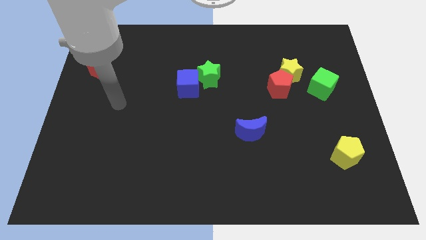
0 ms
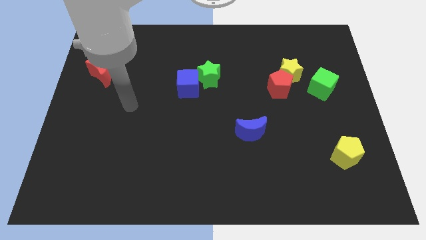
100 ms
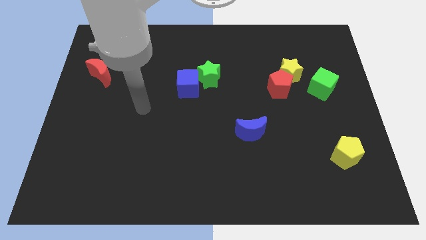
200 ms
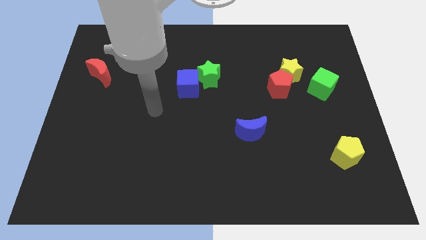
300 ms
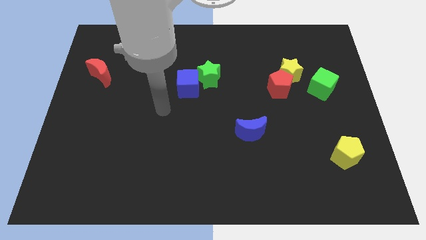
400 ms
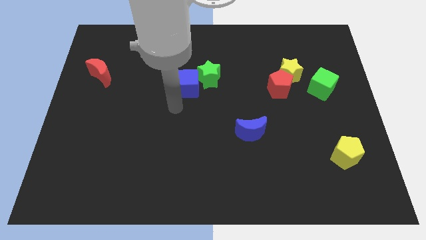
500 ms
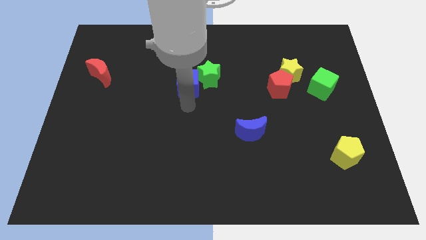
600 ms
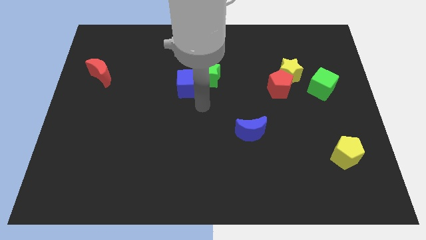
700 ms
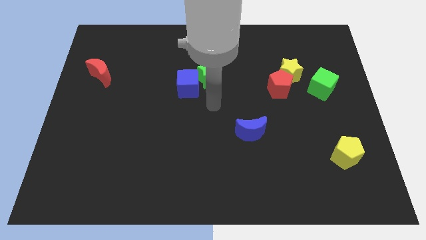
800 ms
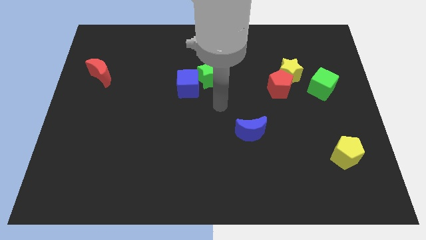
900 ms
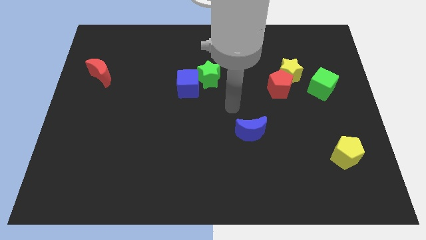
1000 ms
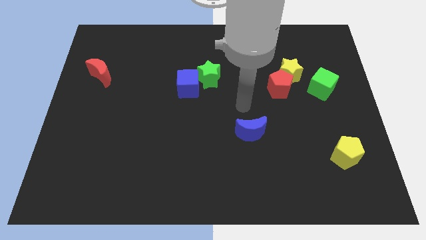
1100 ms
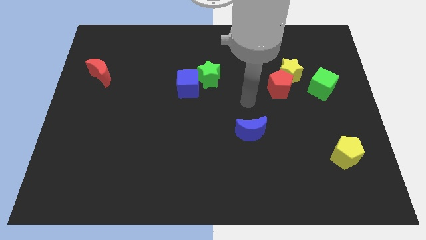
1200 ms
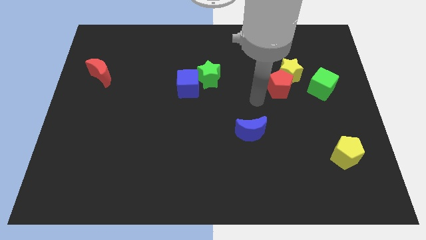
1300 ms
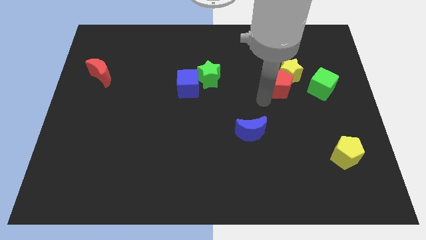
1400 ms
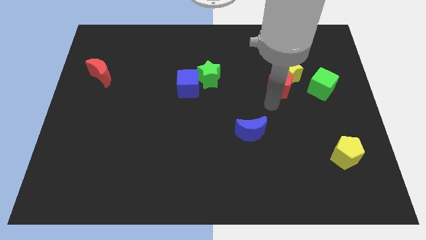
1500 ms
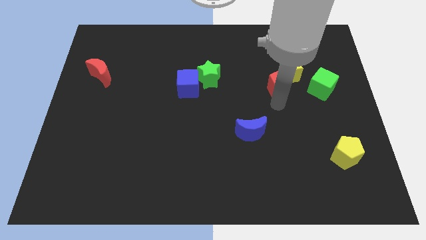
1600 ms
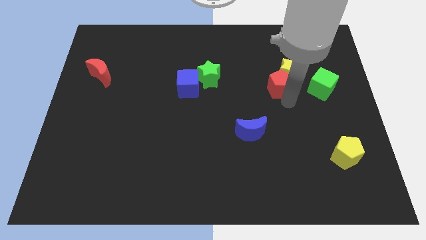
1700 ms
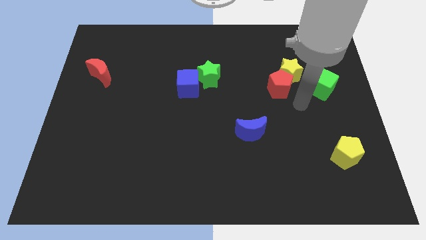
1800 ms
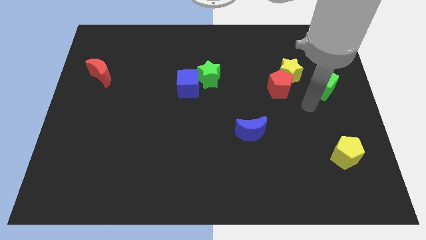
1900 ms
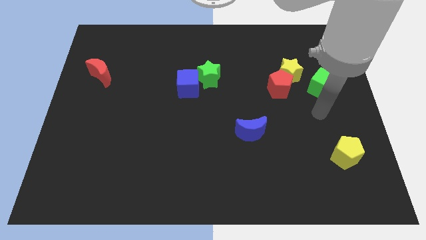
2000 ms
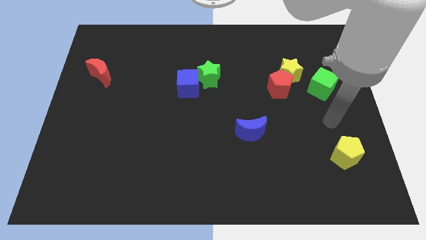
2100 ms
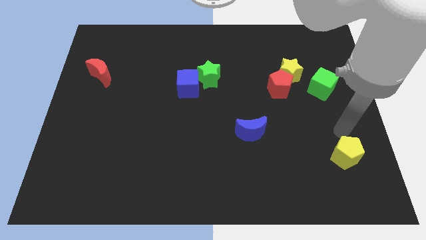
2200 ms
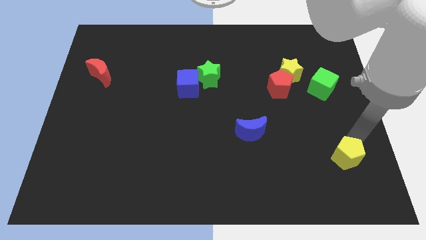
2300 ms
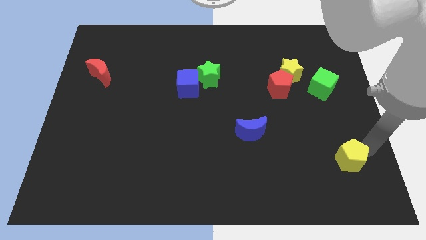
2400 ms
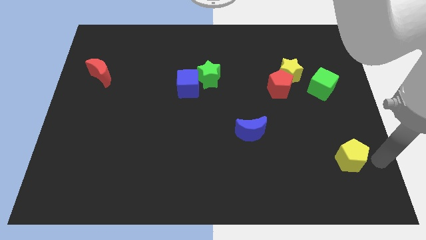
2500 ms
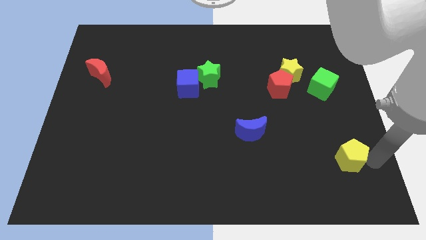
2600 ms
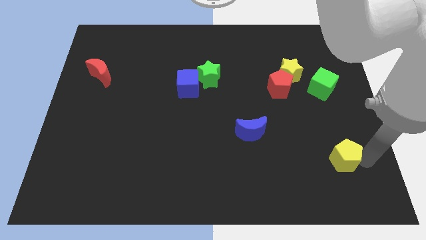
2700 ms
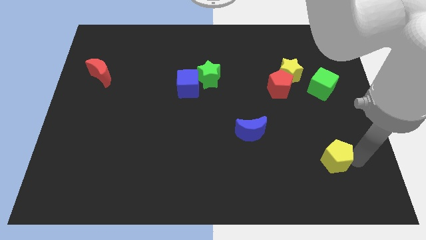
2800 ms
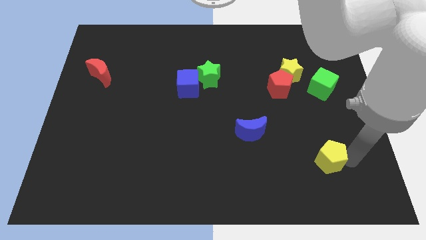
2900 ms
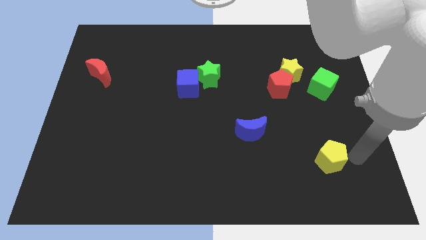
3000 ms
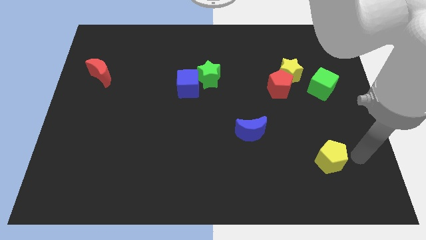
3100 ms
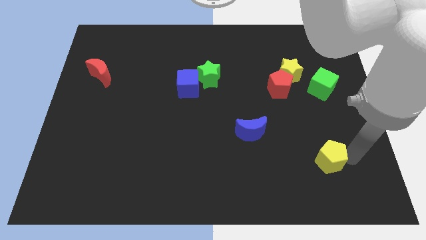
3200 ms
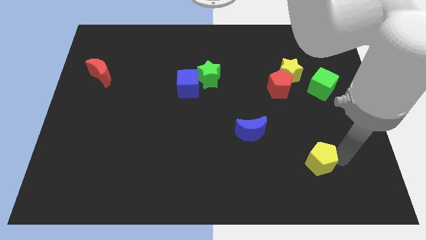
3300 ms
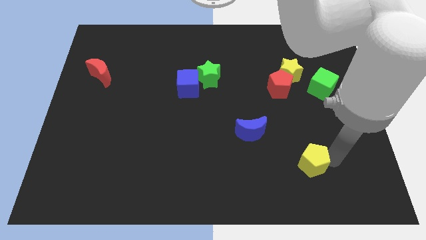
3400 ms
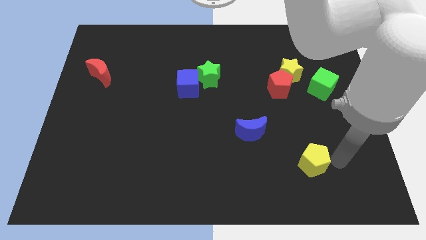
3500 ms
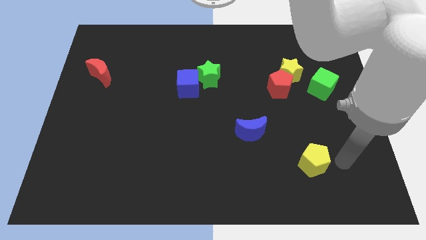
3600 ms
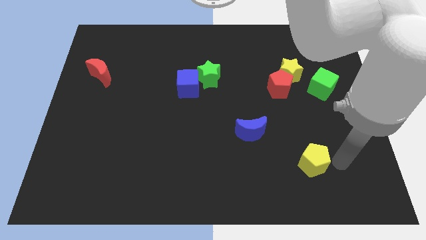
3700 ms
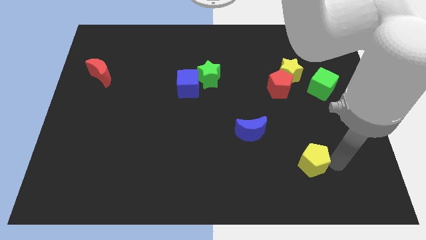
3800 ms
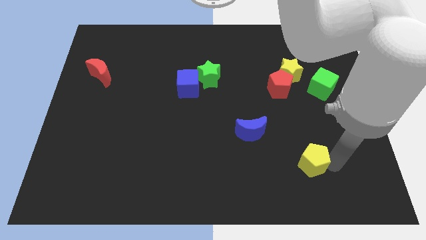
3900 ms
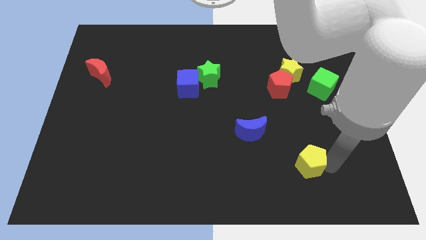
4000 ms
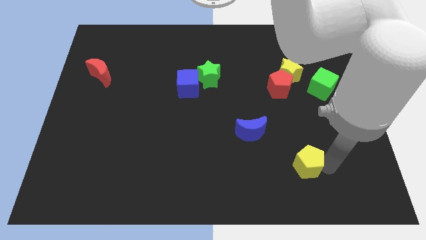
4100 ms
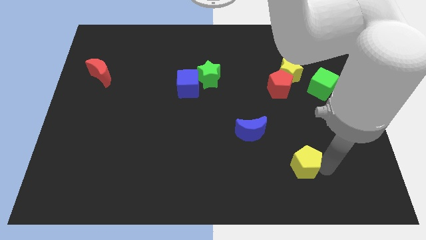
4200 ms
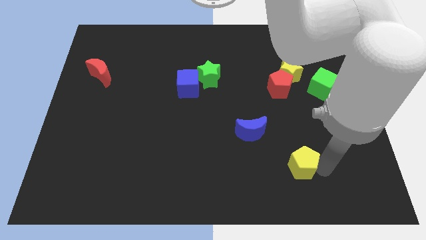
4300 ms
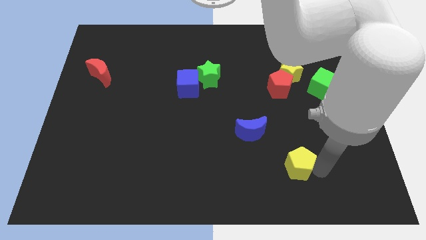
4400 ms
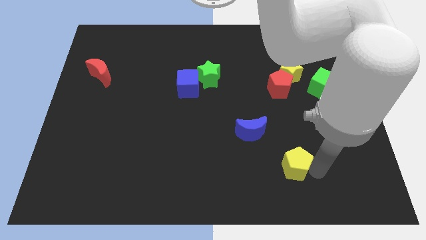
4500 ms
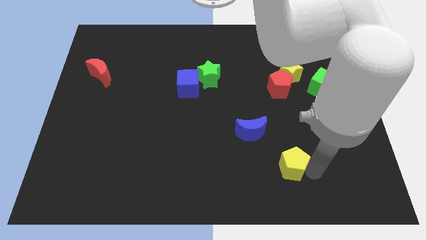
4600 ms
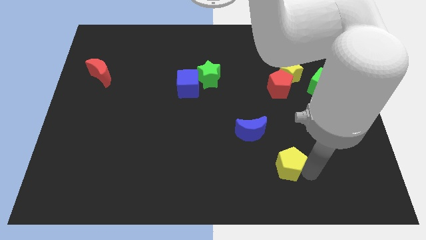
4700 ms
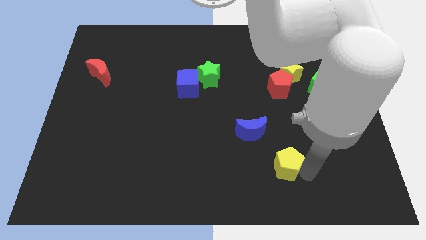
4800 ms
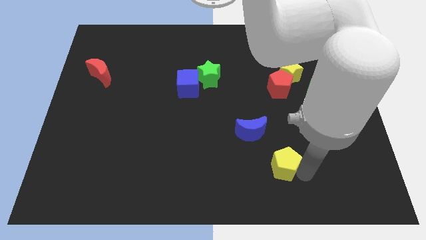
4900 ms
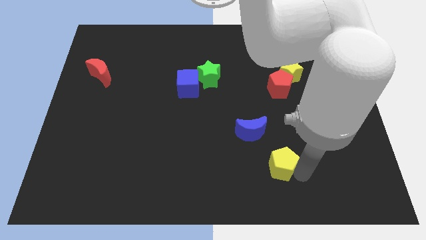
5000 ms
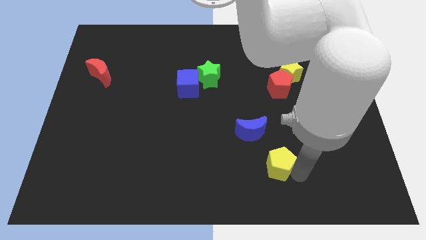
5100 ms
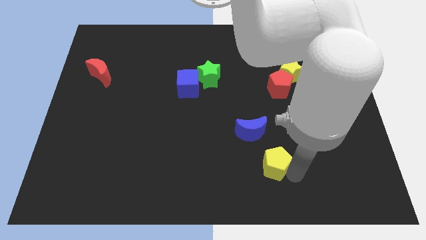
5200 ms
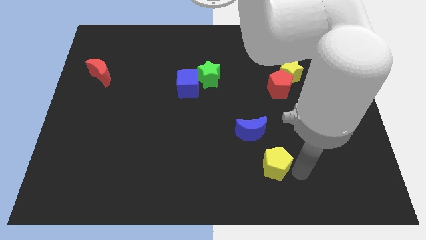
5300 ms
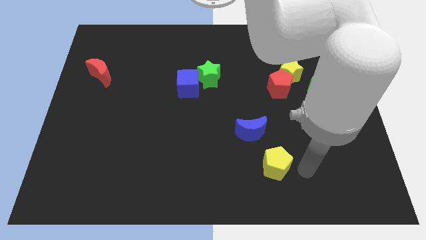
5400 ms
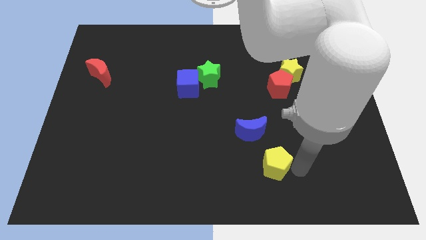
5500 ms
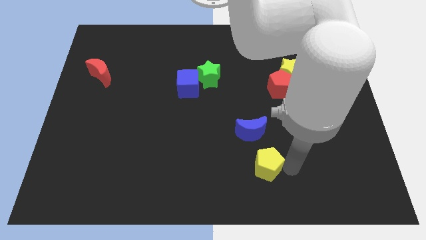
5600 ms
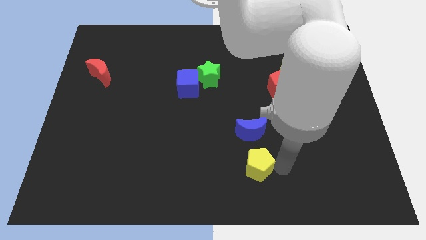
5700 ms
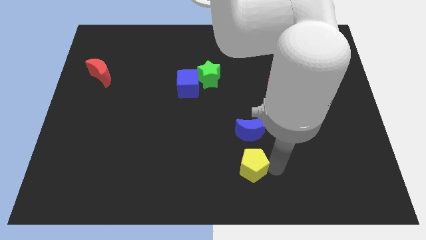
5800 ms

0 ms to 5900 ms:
push the yellow pentagon to the left

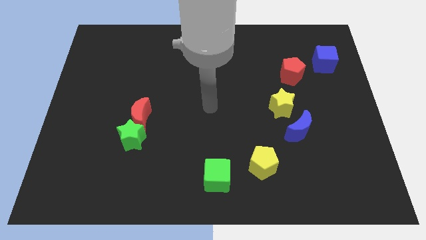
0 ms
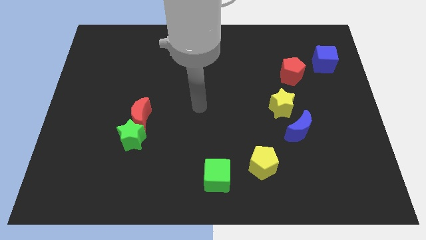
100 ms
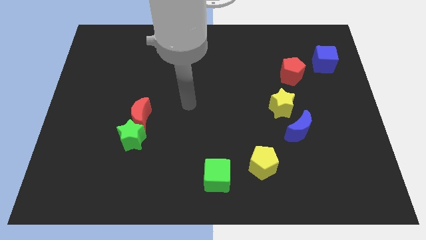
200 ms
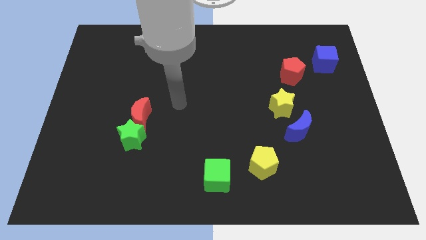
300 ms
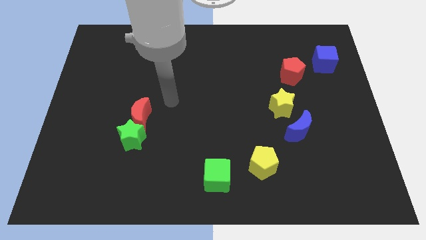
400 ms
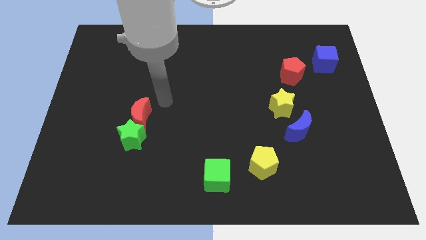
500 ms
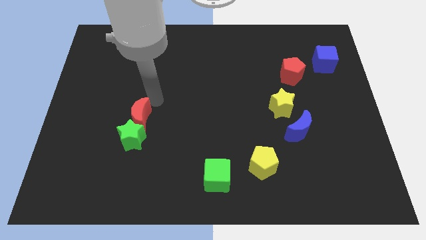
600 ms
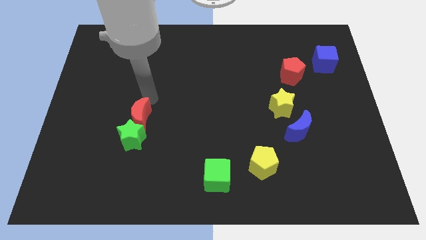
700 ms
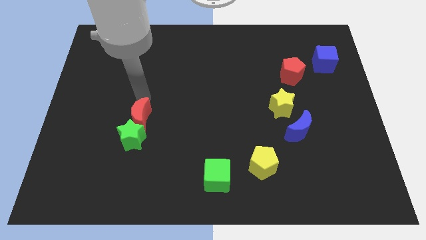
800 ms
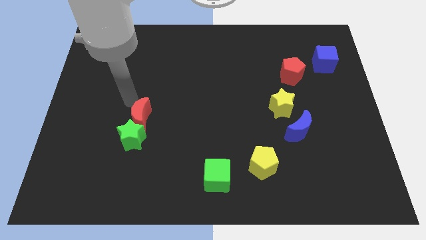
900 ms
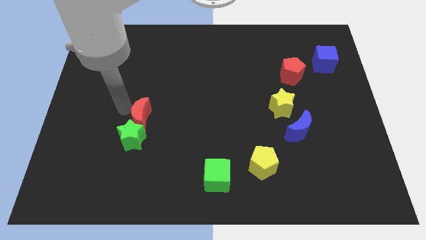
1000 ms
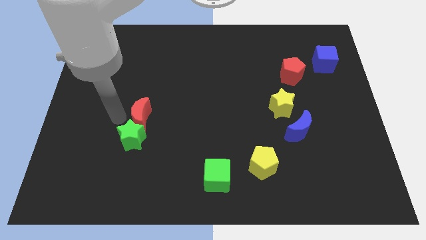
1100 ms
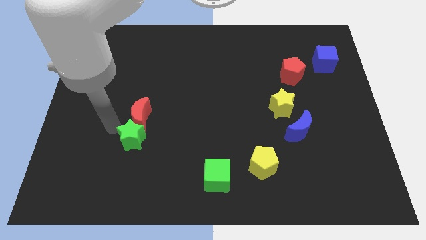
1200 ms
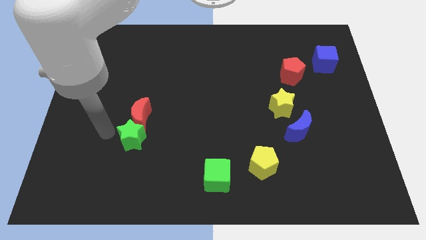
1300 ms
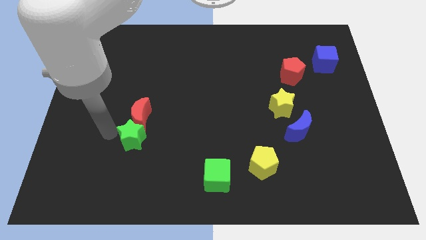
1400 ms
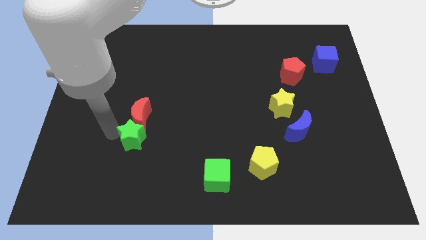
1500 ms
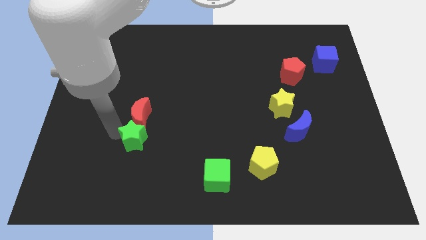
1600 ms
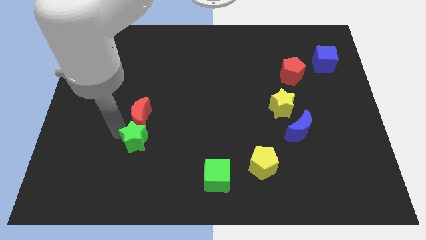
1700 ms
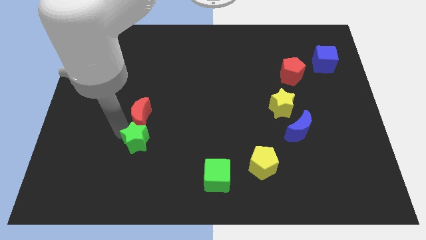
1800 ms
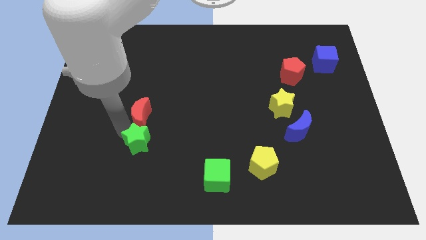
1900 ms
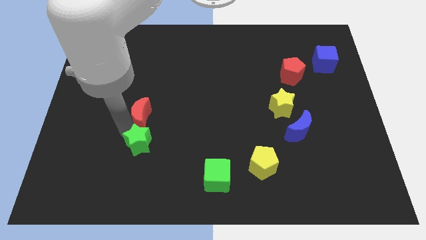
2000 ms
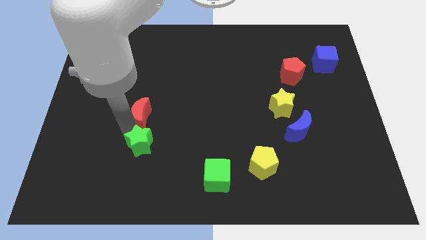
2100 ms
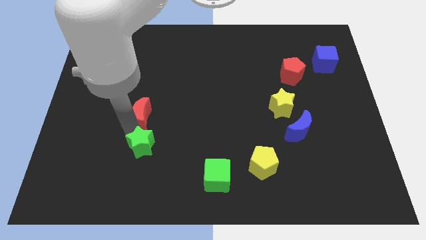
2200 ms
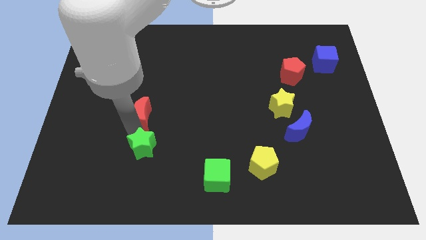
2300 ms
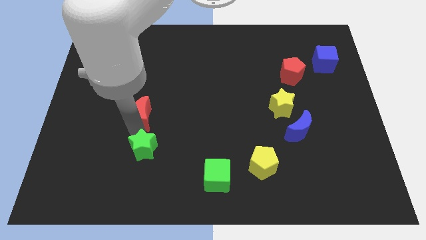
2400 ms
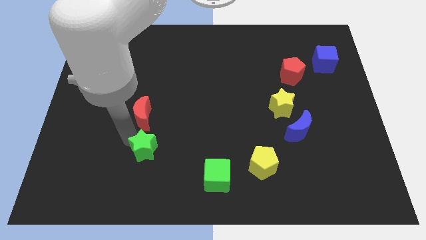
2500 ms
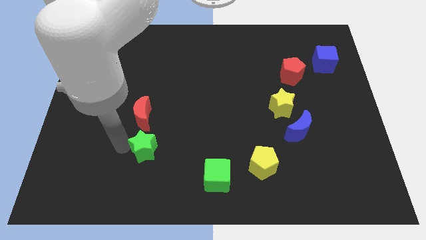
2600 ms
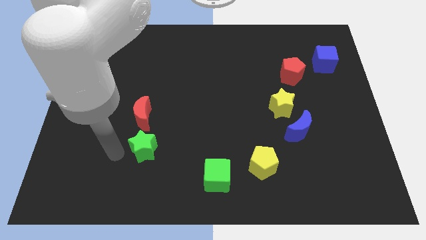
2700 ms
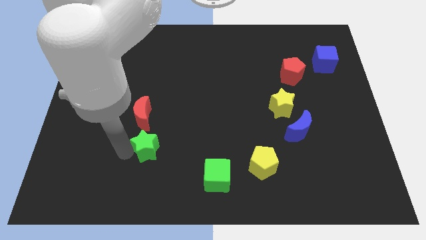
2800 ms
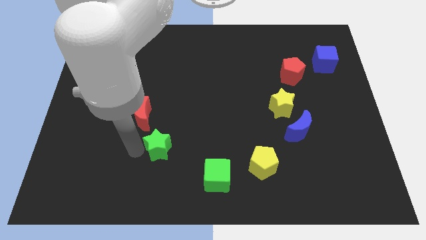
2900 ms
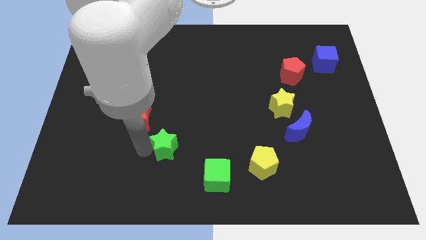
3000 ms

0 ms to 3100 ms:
slightly move the green star to the right
